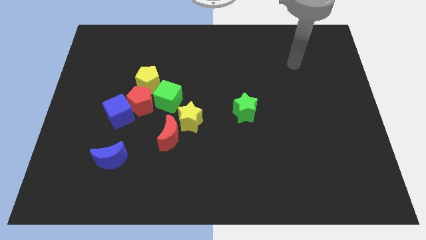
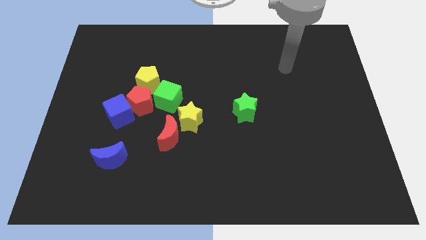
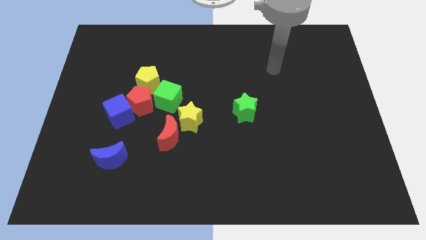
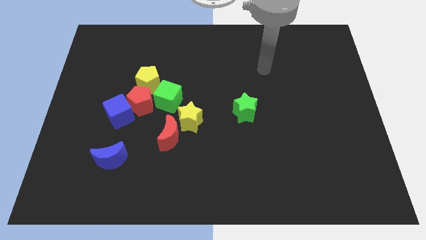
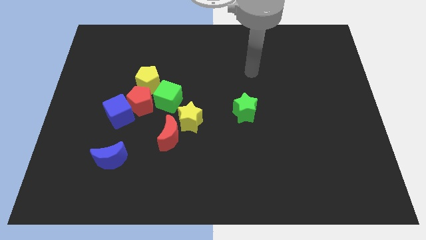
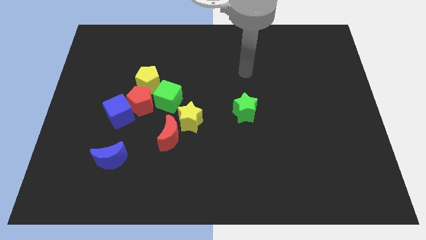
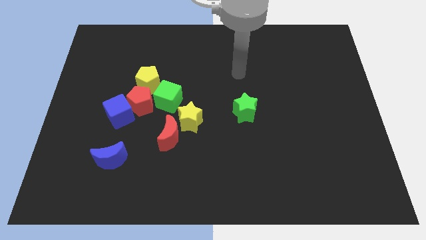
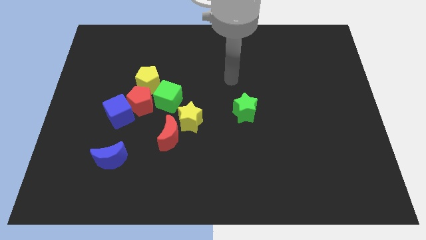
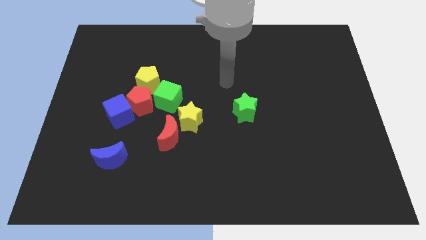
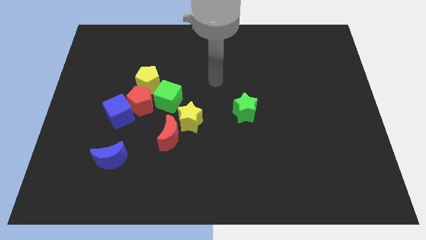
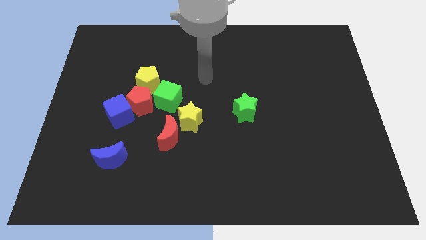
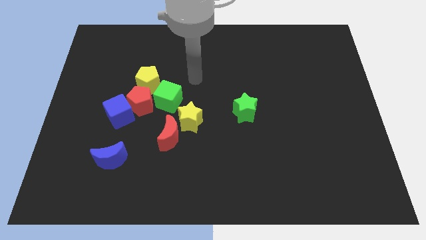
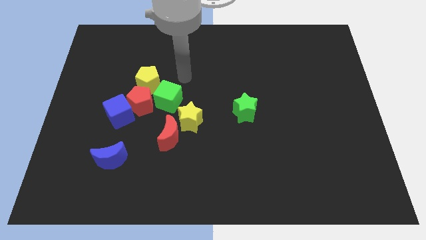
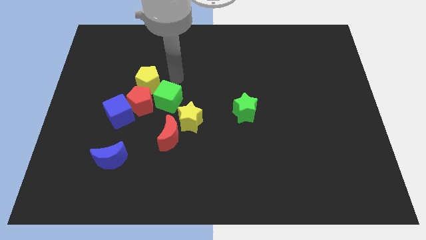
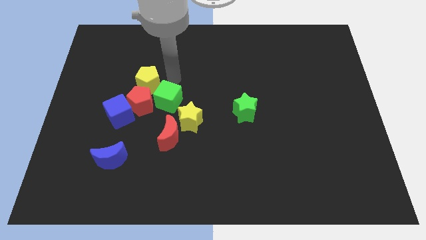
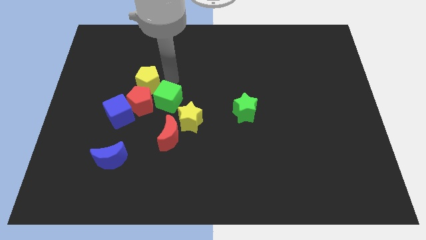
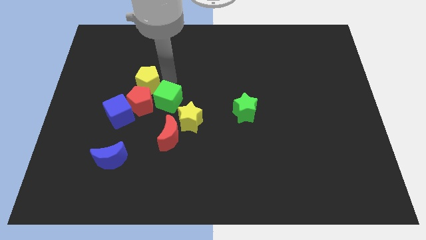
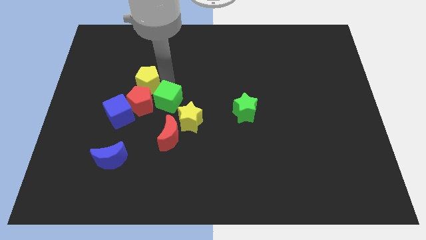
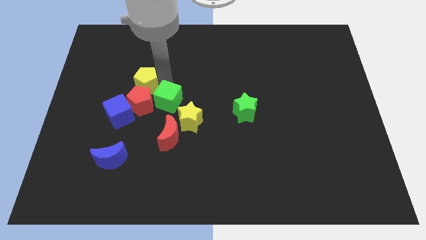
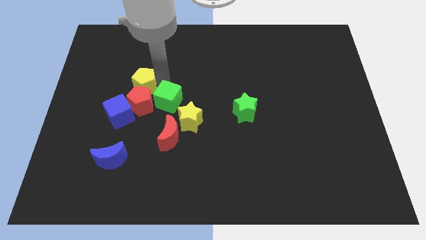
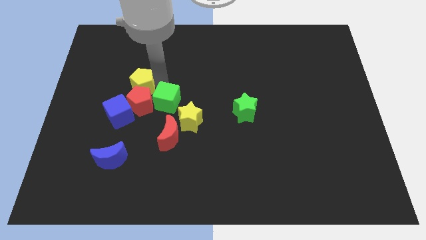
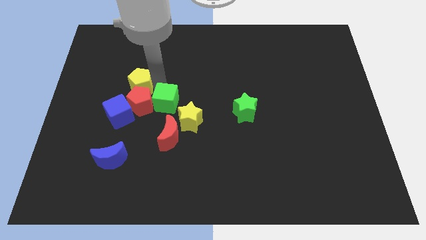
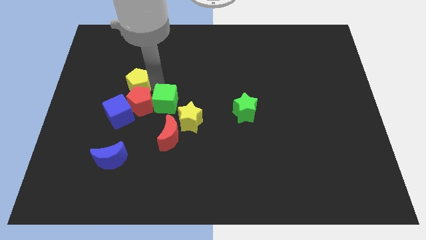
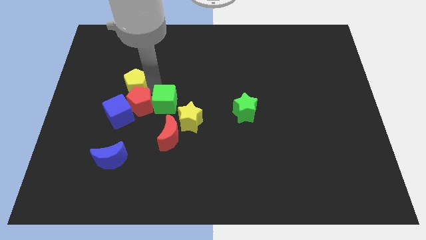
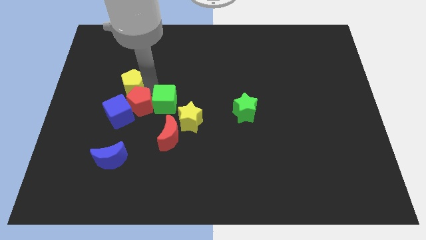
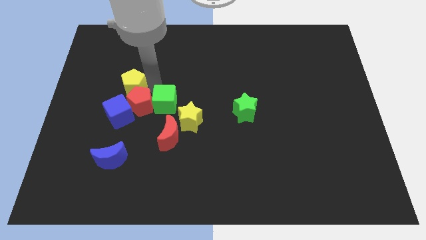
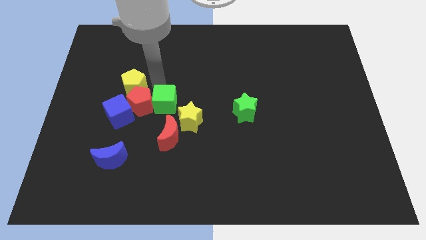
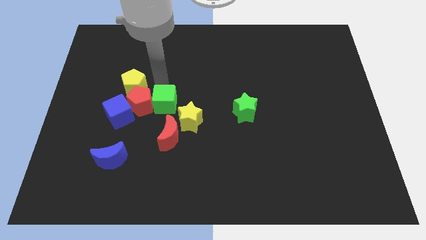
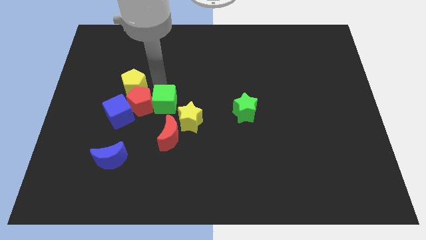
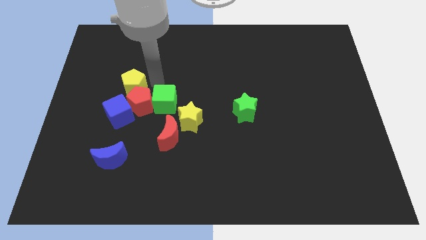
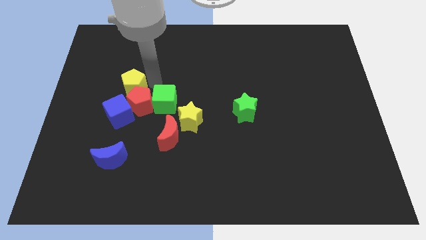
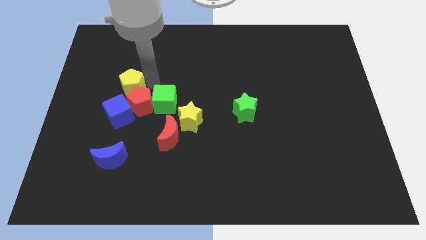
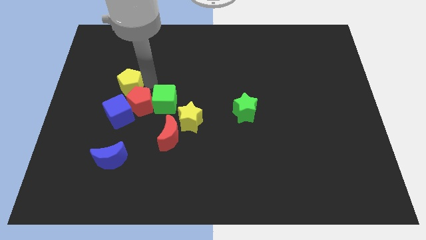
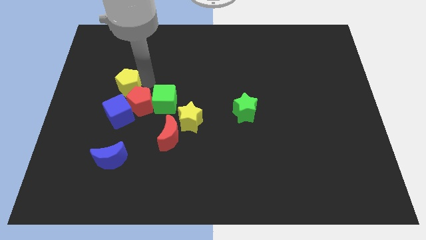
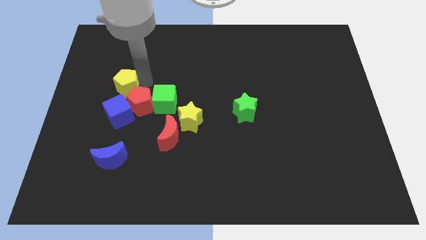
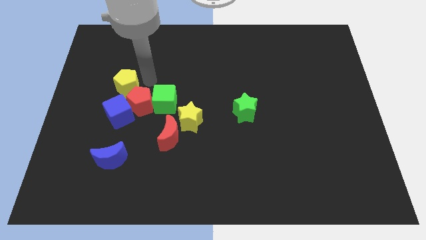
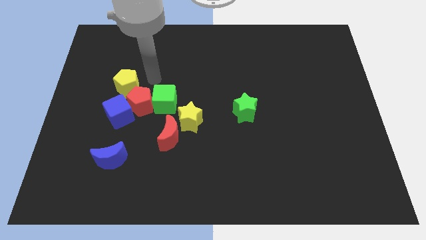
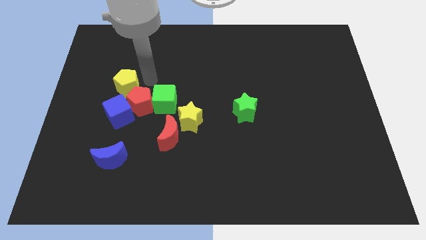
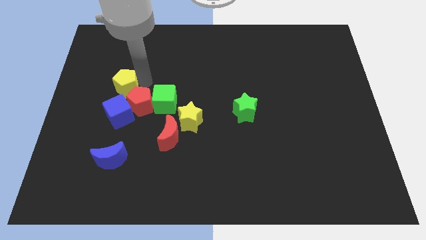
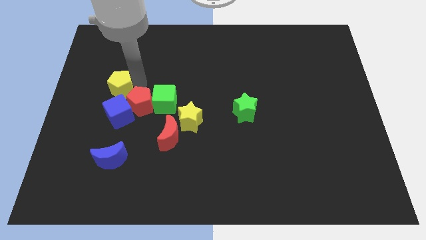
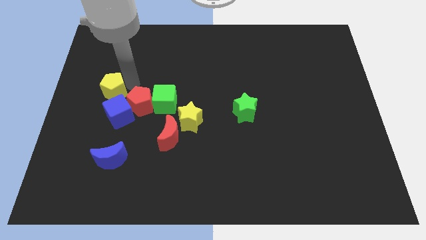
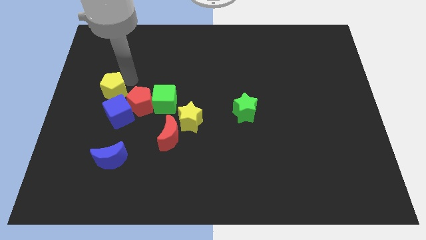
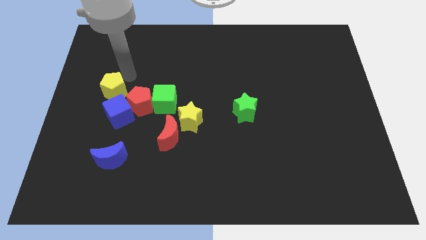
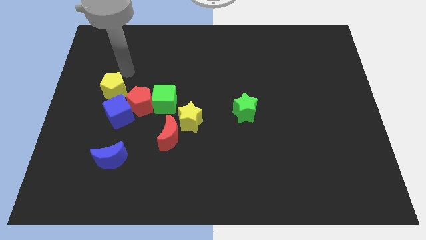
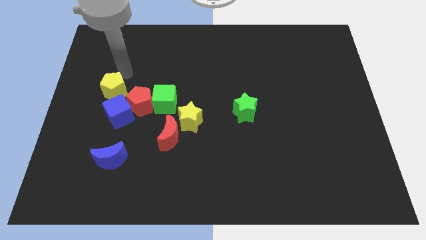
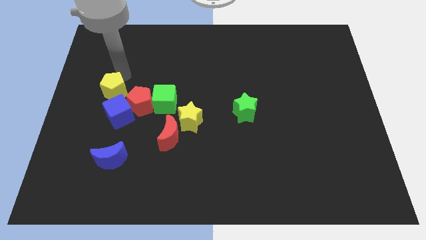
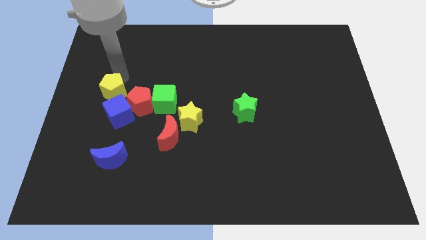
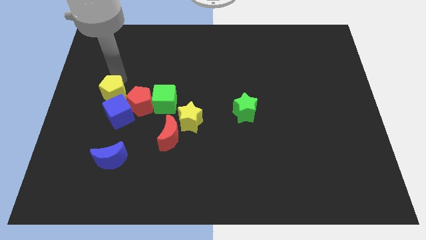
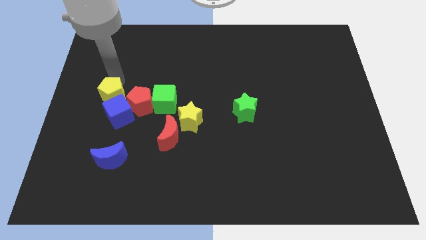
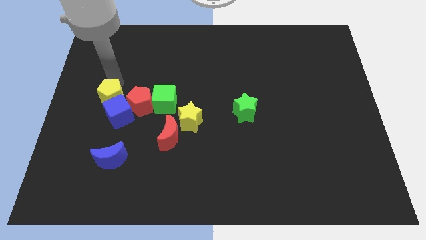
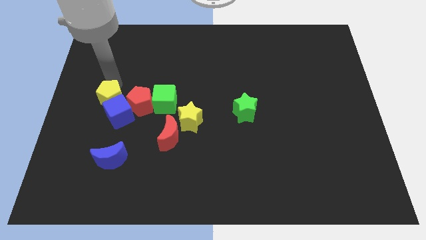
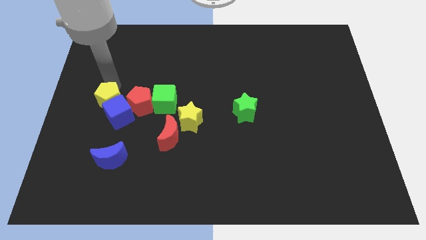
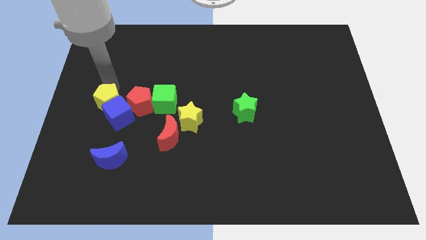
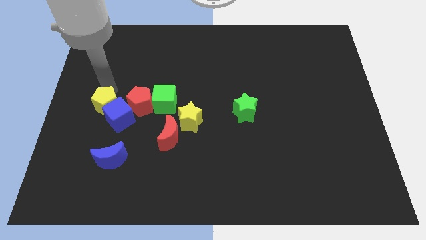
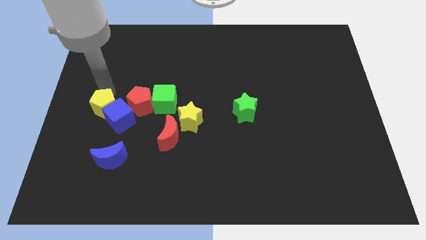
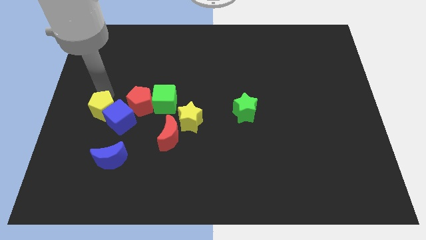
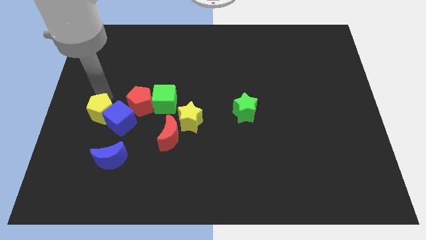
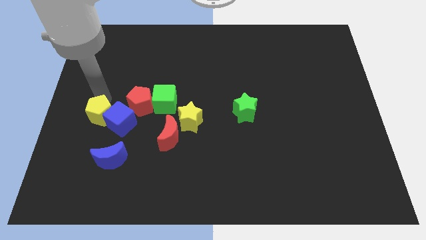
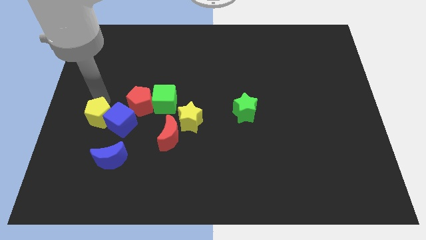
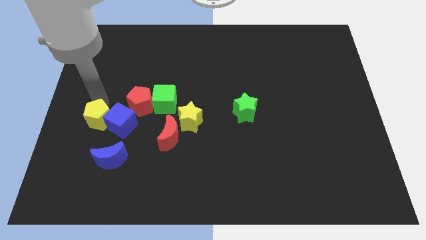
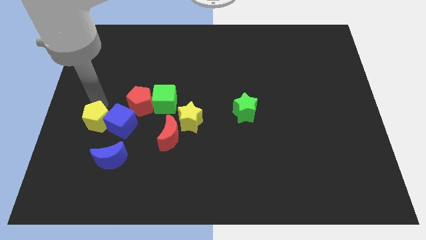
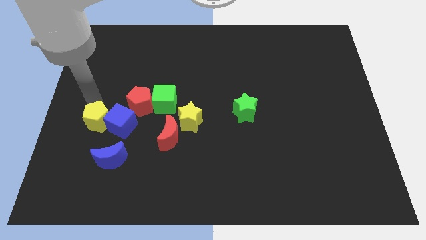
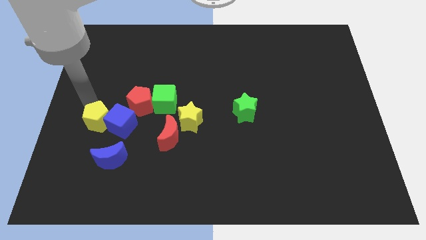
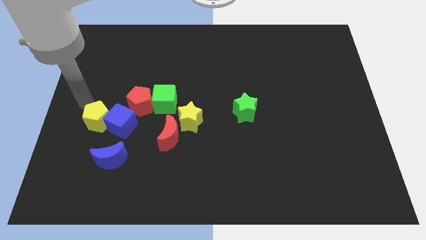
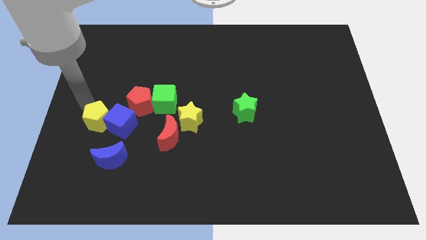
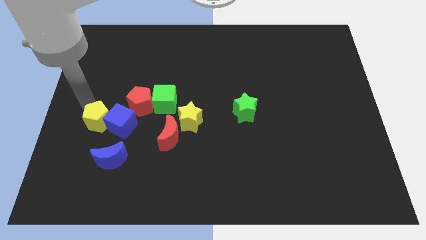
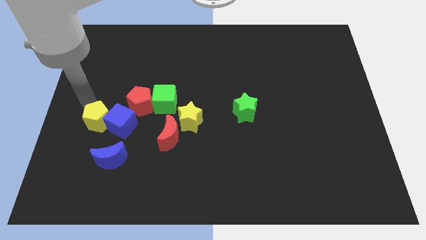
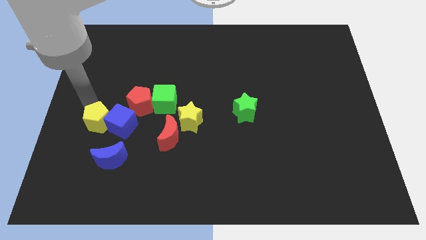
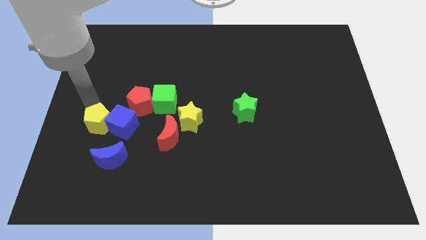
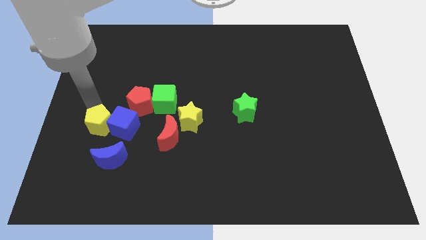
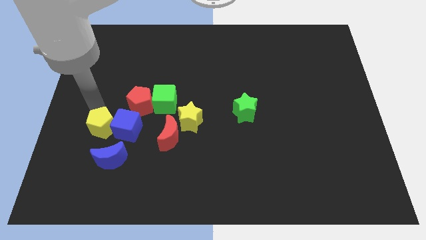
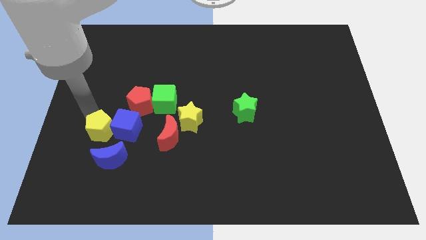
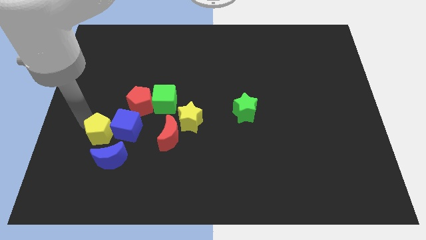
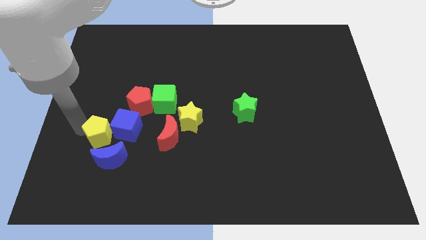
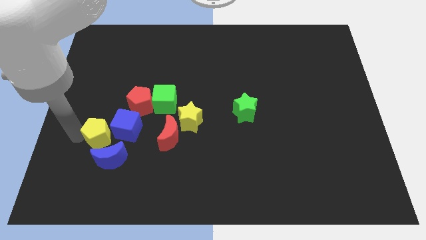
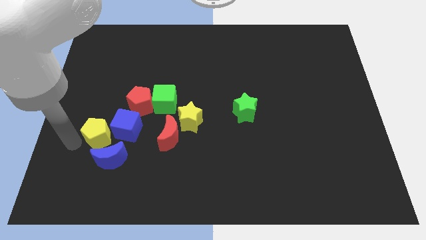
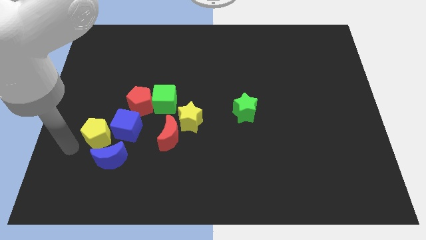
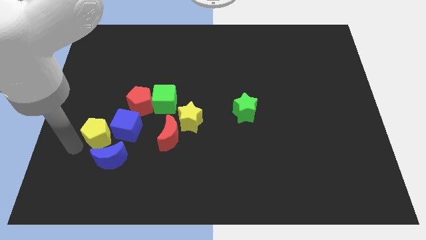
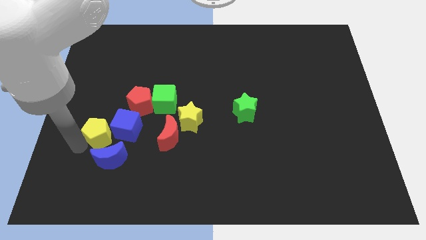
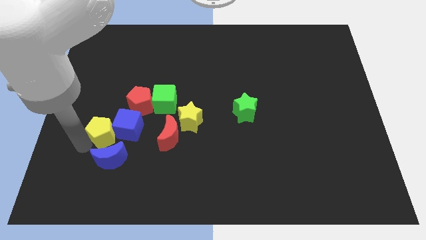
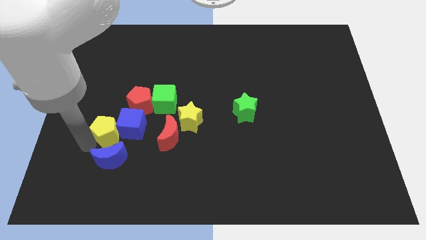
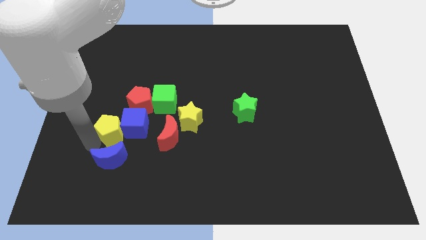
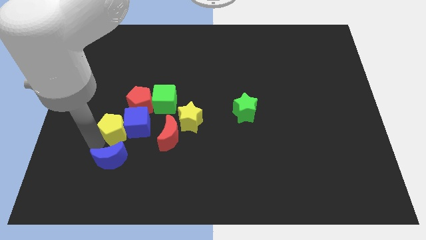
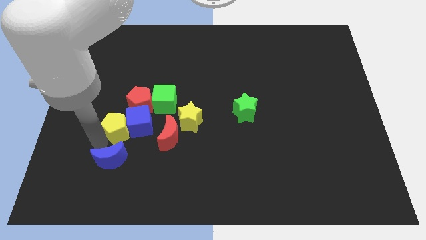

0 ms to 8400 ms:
slide the yellow pentagon diagonally down and to the left of the green cube
